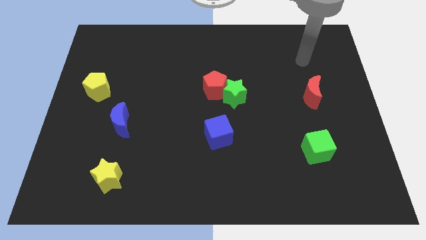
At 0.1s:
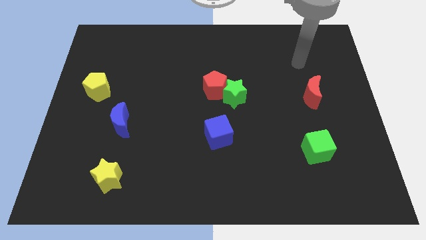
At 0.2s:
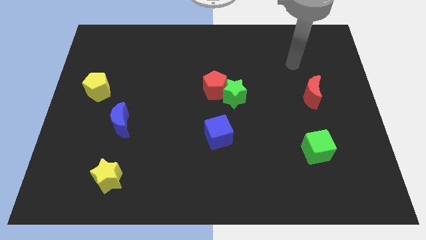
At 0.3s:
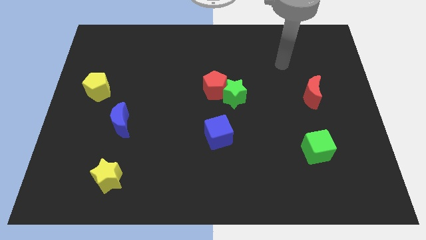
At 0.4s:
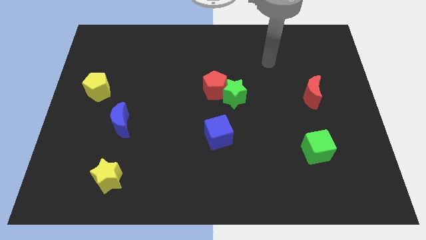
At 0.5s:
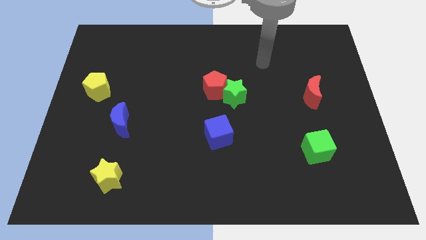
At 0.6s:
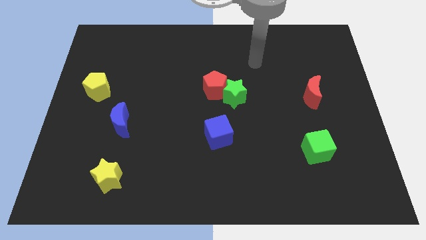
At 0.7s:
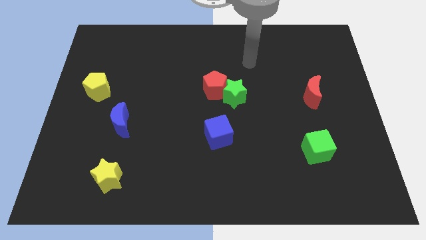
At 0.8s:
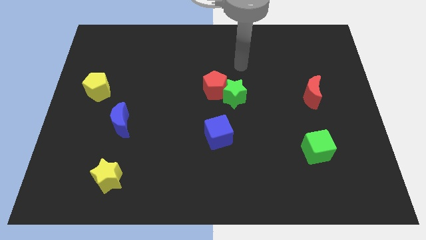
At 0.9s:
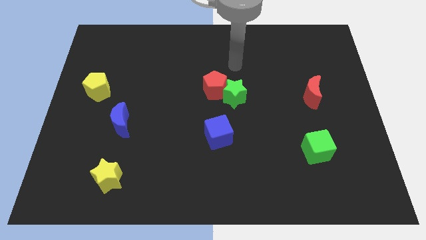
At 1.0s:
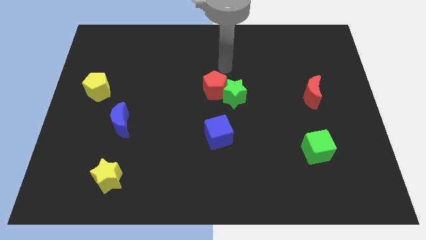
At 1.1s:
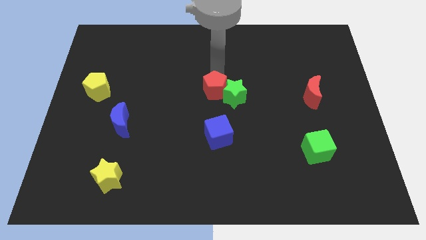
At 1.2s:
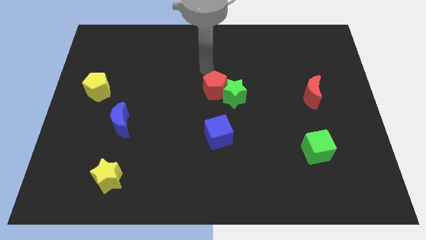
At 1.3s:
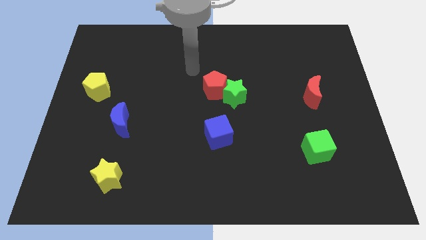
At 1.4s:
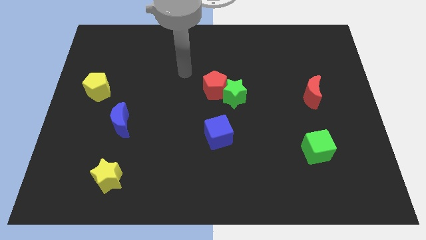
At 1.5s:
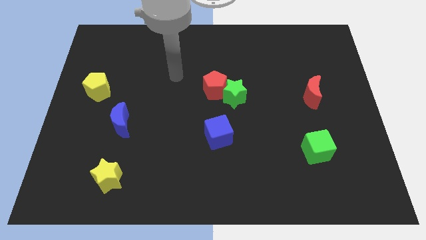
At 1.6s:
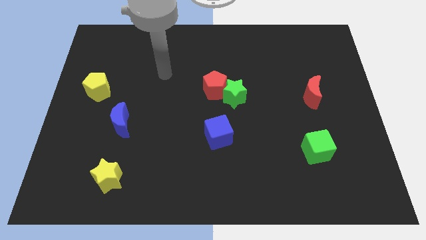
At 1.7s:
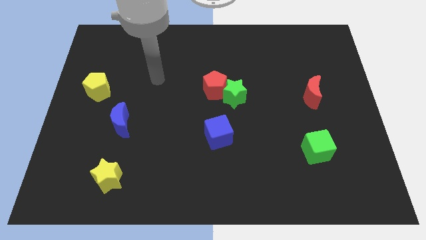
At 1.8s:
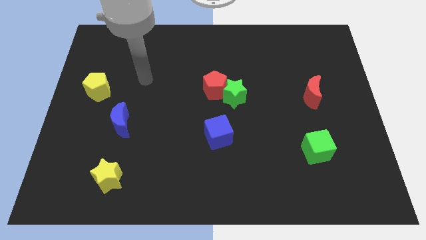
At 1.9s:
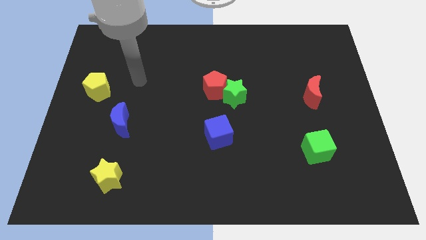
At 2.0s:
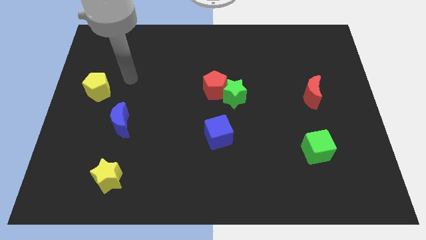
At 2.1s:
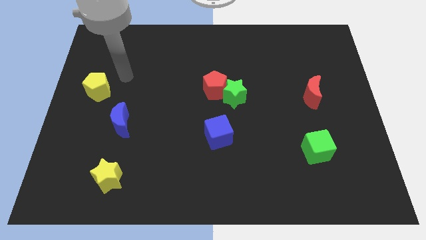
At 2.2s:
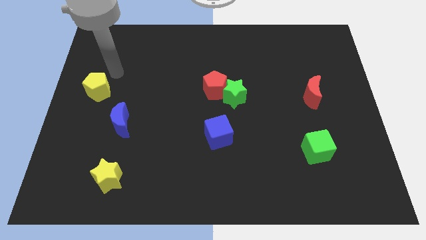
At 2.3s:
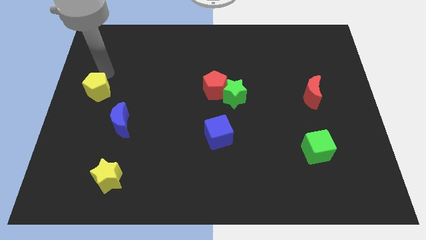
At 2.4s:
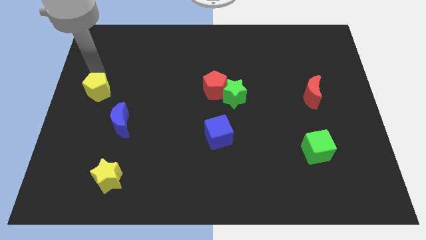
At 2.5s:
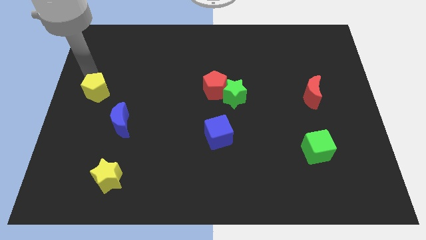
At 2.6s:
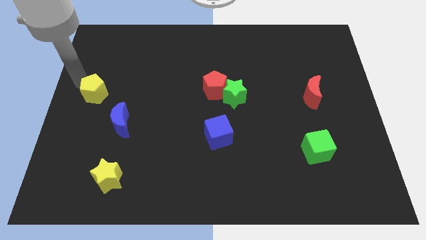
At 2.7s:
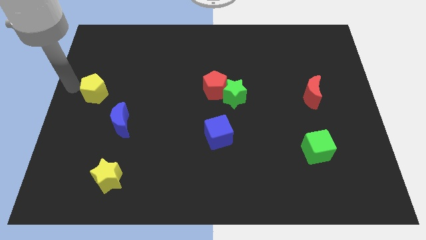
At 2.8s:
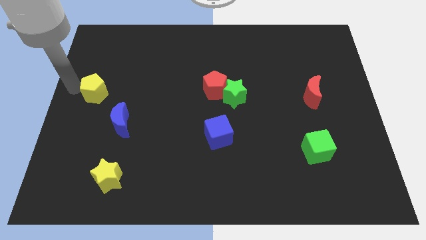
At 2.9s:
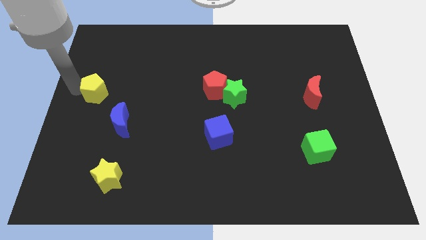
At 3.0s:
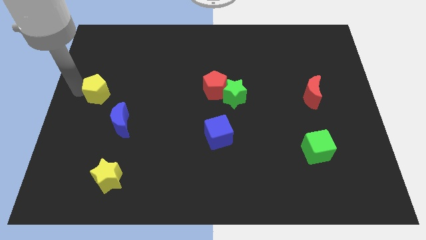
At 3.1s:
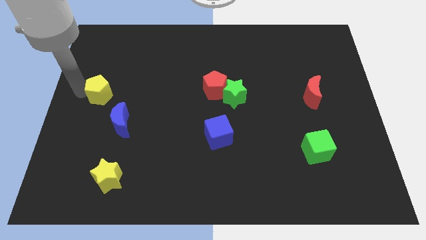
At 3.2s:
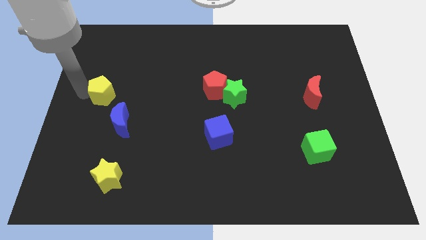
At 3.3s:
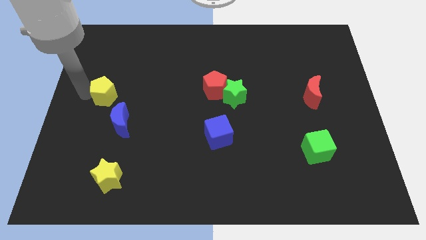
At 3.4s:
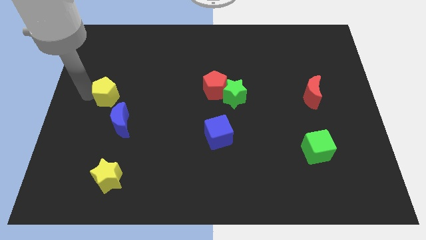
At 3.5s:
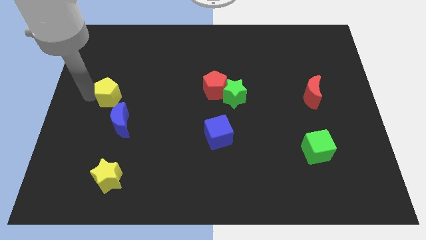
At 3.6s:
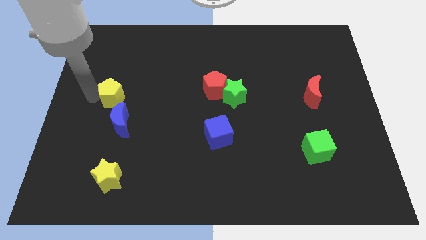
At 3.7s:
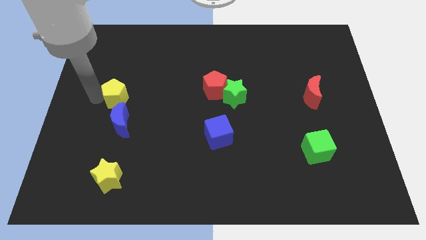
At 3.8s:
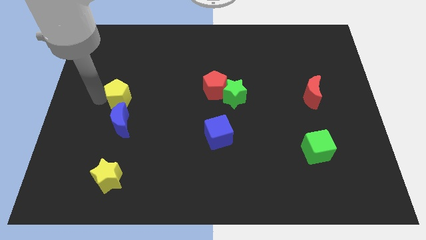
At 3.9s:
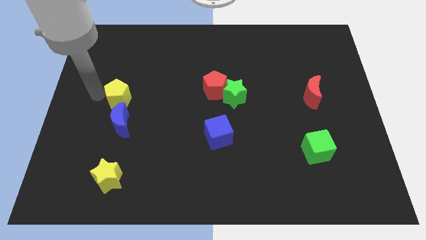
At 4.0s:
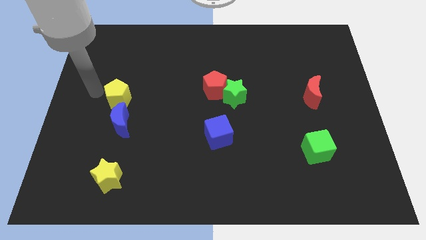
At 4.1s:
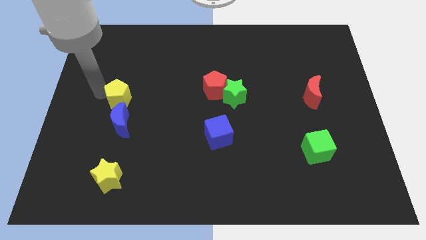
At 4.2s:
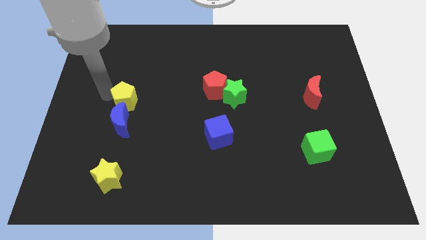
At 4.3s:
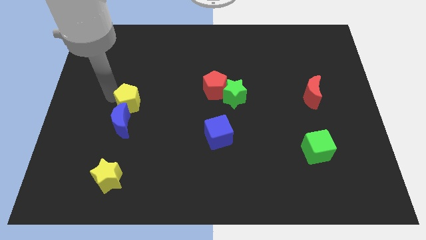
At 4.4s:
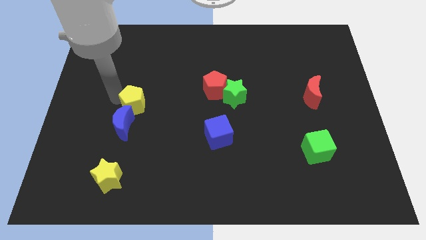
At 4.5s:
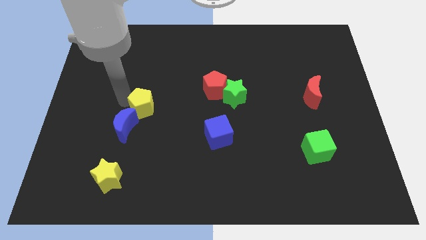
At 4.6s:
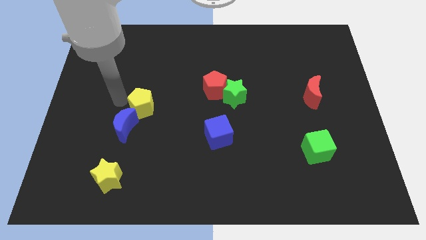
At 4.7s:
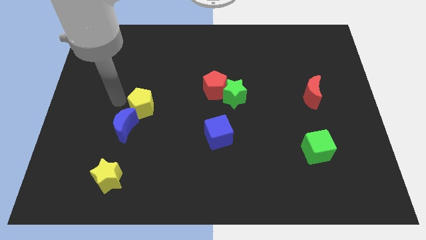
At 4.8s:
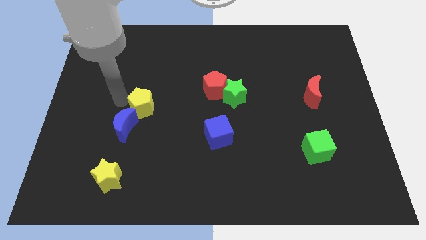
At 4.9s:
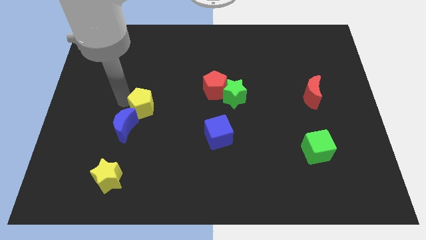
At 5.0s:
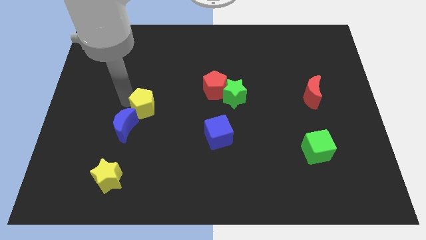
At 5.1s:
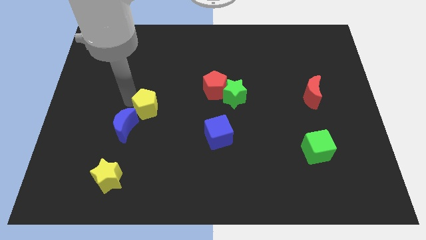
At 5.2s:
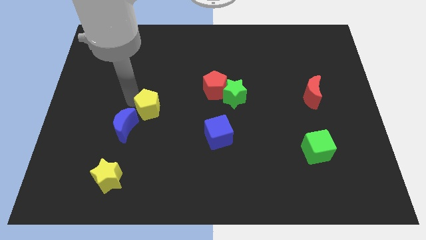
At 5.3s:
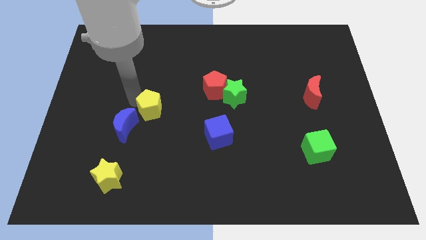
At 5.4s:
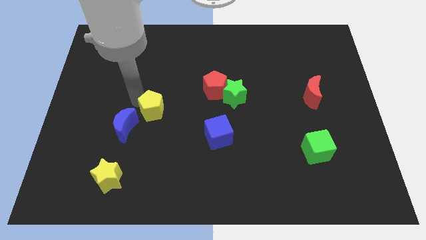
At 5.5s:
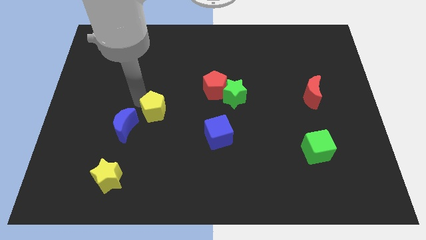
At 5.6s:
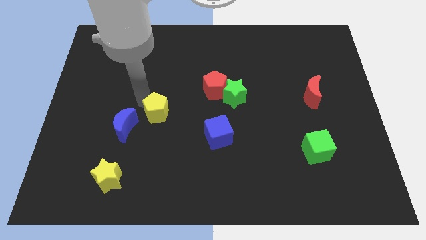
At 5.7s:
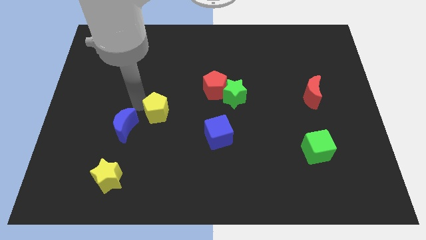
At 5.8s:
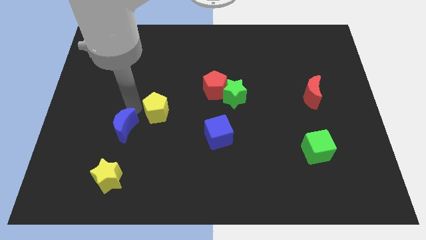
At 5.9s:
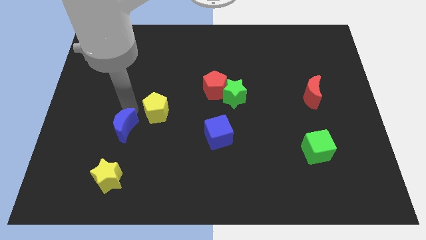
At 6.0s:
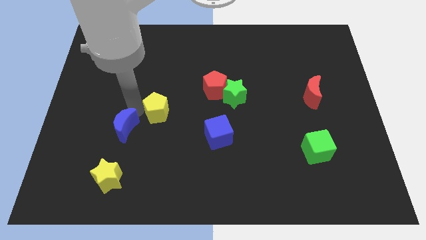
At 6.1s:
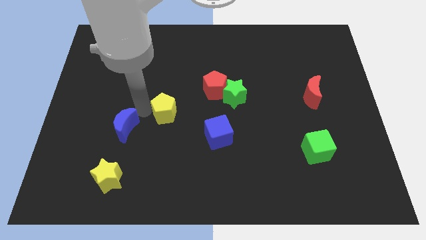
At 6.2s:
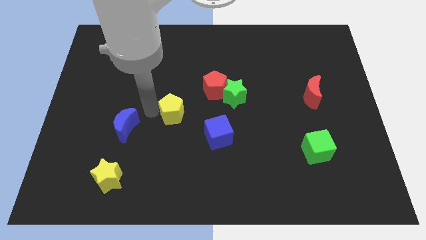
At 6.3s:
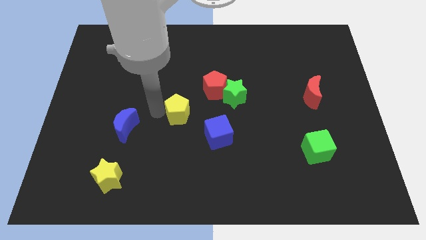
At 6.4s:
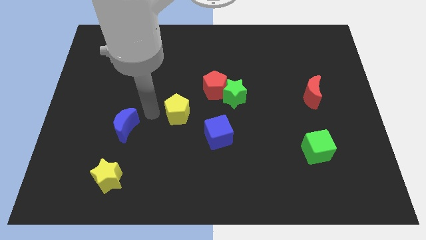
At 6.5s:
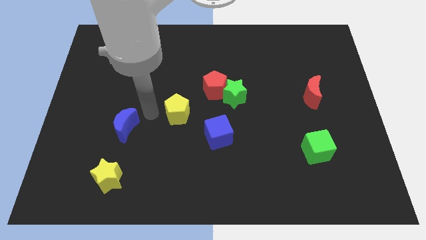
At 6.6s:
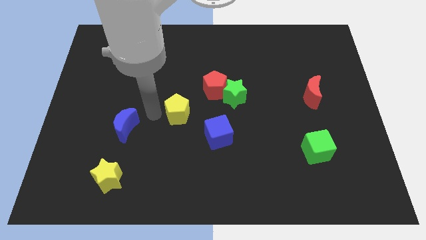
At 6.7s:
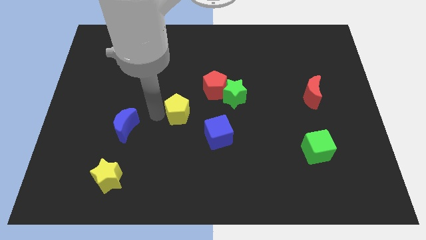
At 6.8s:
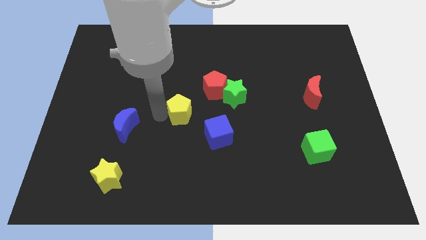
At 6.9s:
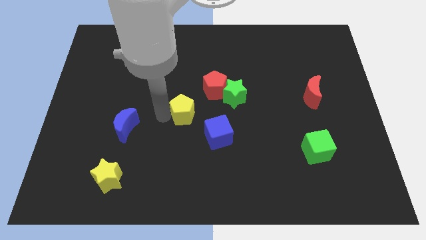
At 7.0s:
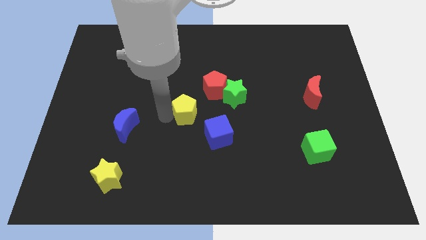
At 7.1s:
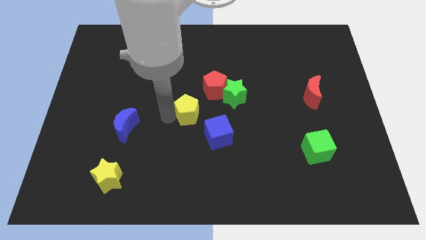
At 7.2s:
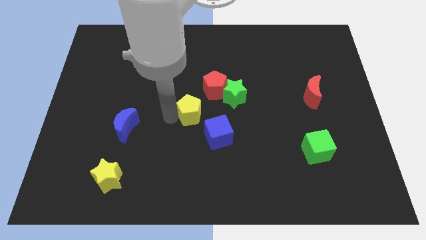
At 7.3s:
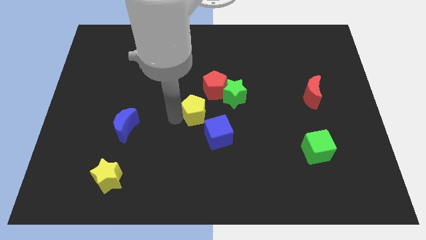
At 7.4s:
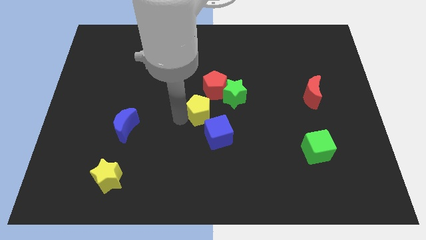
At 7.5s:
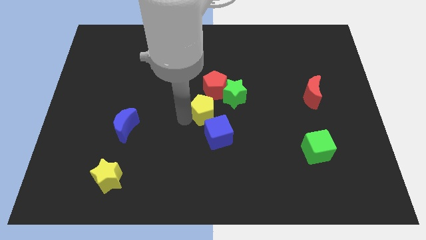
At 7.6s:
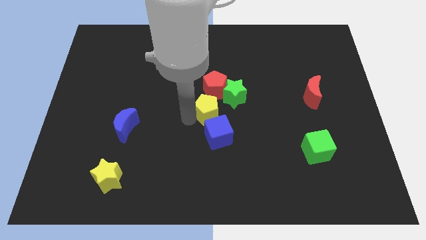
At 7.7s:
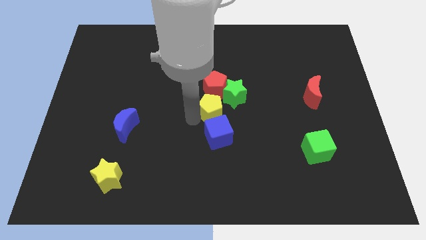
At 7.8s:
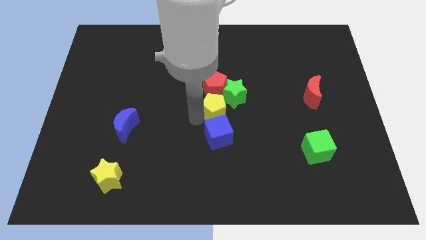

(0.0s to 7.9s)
slide the yellow pentagon next to the green star

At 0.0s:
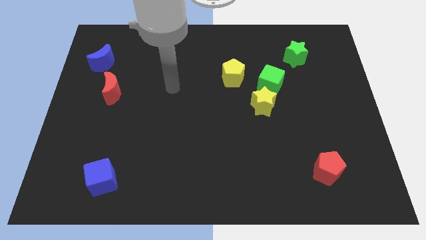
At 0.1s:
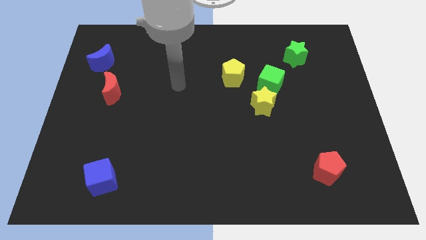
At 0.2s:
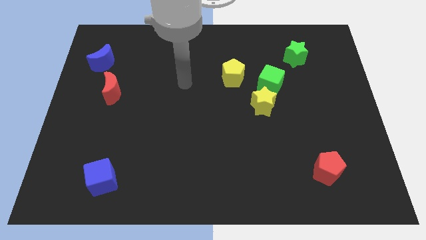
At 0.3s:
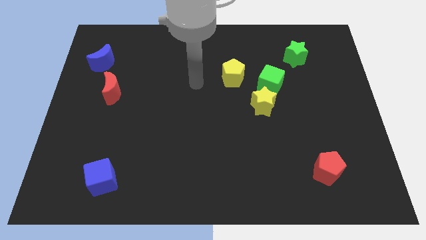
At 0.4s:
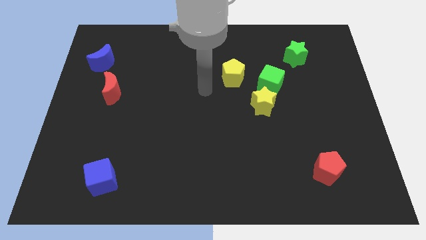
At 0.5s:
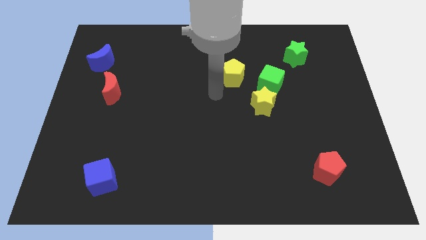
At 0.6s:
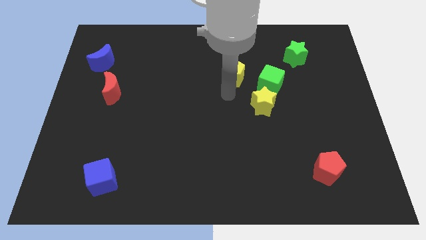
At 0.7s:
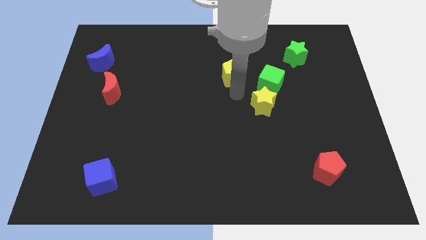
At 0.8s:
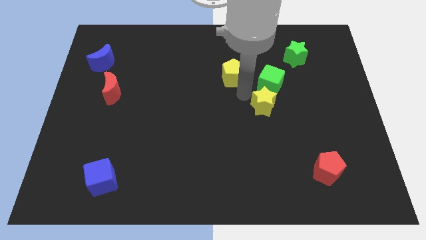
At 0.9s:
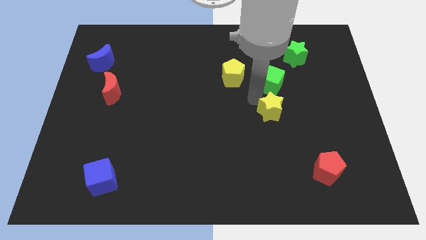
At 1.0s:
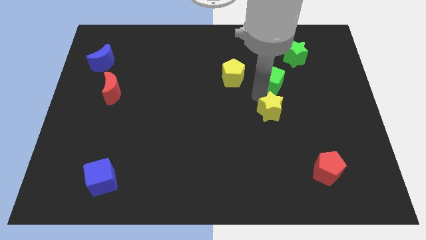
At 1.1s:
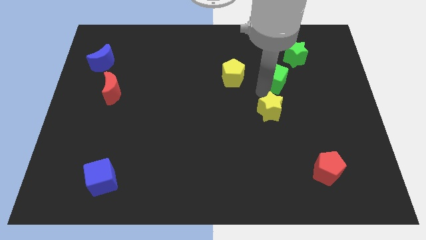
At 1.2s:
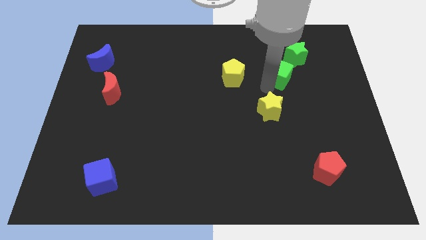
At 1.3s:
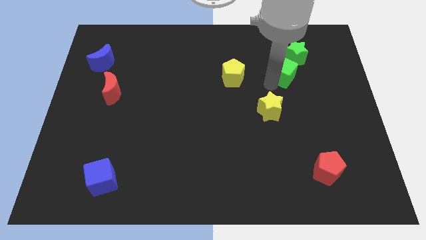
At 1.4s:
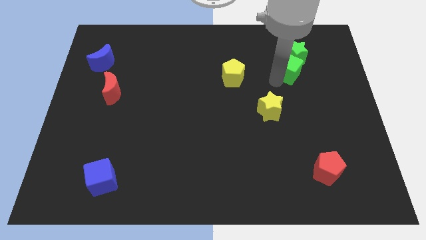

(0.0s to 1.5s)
push the green cube next to the green star
